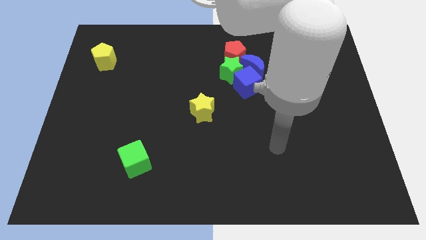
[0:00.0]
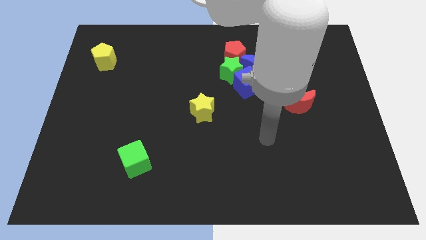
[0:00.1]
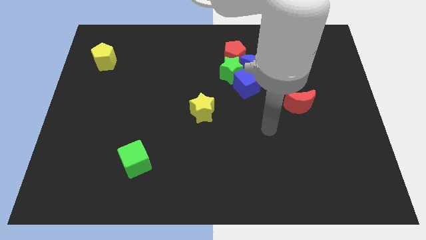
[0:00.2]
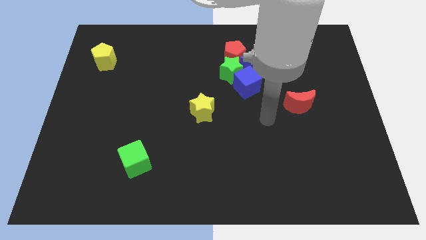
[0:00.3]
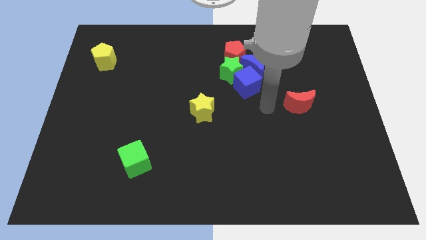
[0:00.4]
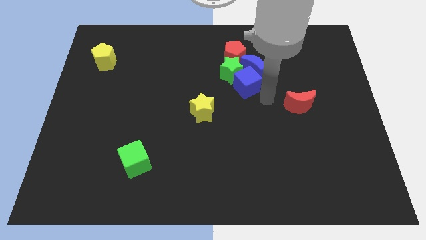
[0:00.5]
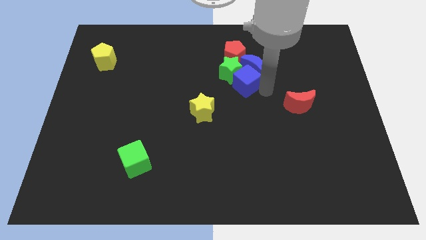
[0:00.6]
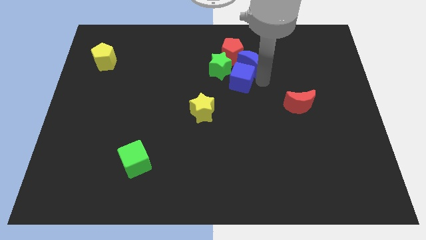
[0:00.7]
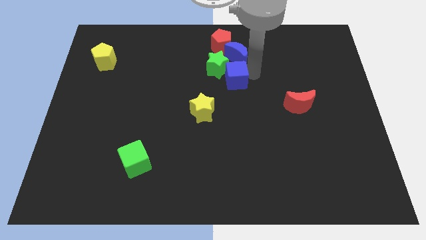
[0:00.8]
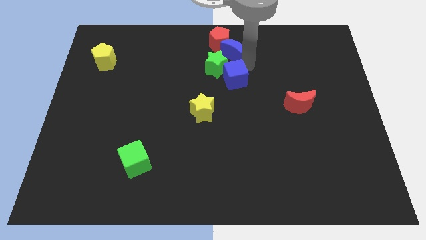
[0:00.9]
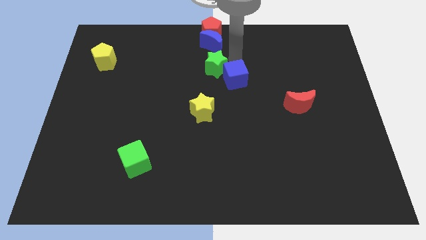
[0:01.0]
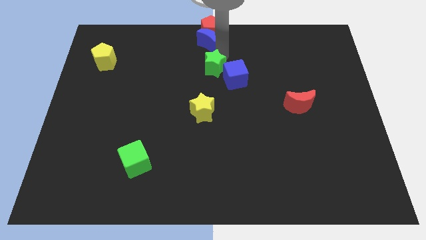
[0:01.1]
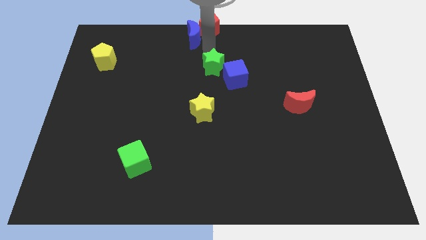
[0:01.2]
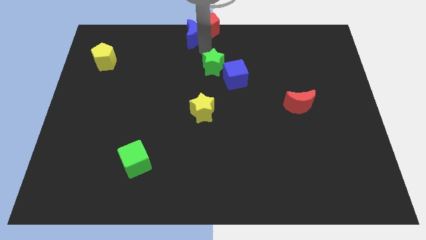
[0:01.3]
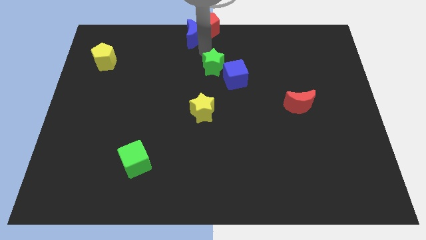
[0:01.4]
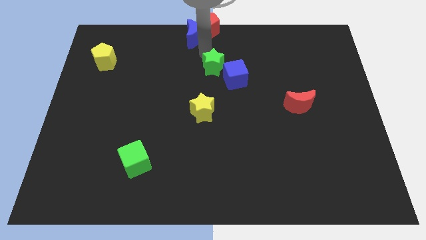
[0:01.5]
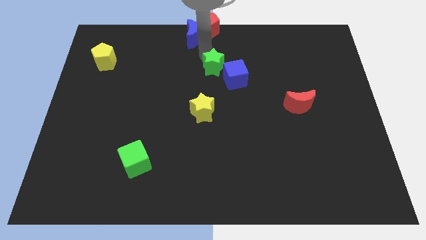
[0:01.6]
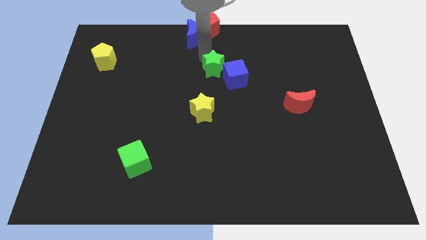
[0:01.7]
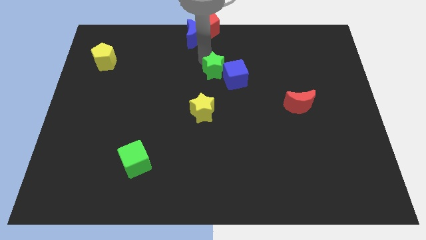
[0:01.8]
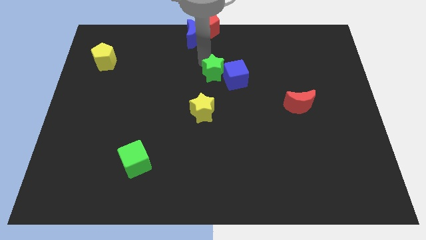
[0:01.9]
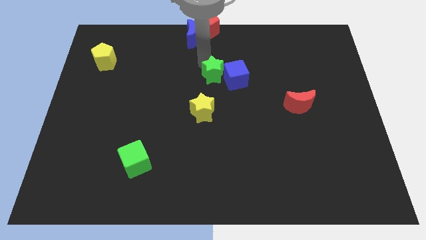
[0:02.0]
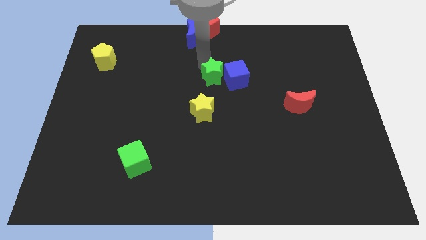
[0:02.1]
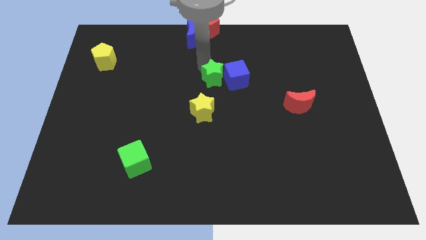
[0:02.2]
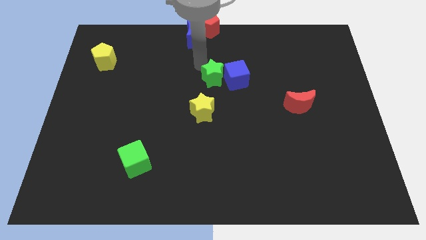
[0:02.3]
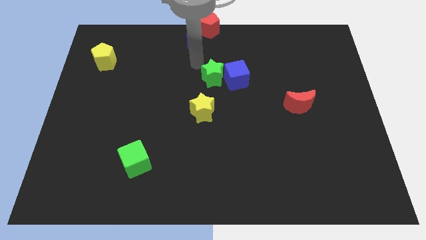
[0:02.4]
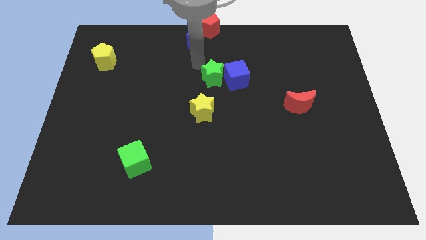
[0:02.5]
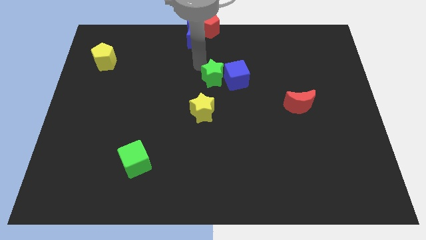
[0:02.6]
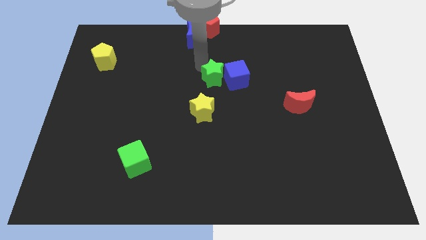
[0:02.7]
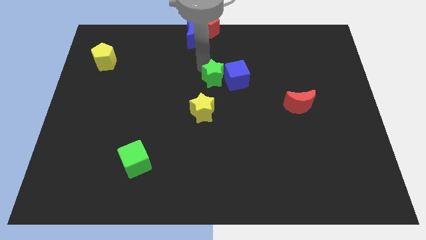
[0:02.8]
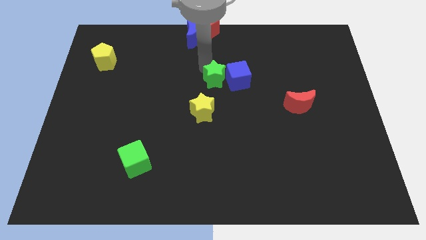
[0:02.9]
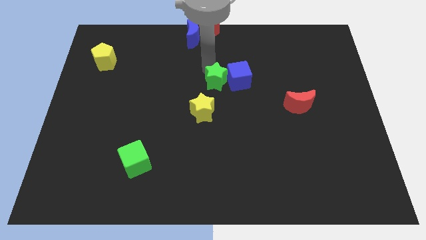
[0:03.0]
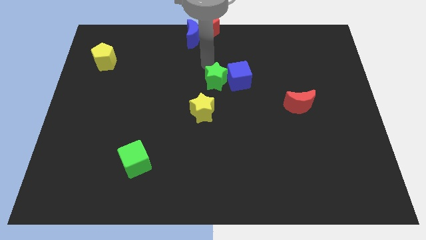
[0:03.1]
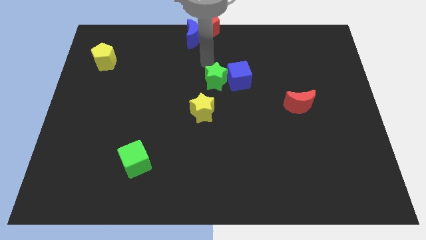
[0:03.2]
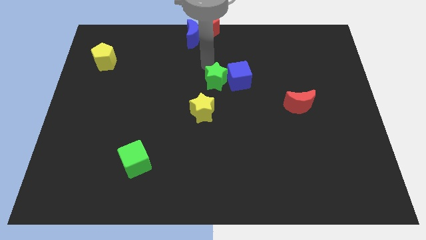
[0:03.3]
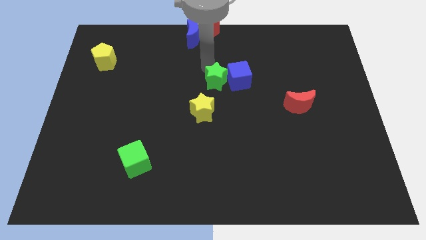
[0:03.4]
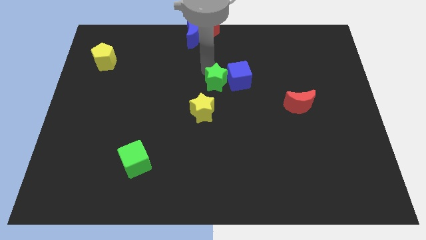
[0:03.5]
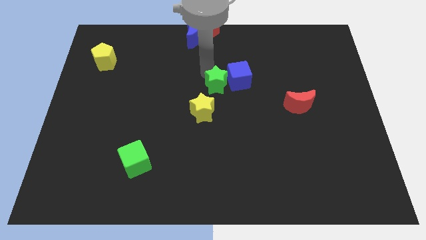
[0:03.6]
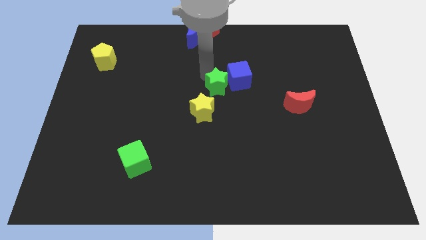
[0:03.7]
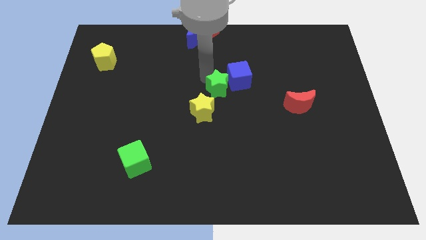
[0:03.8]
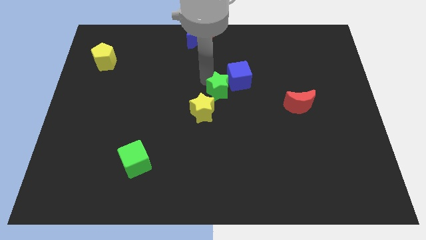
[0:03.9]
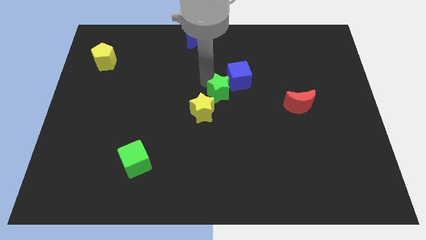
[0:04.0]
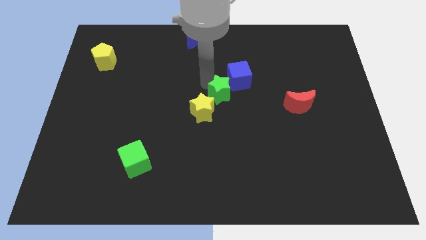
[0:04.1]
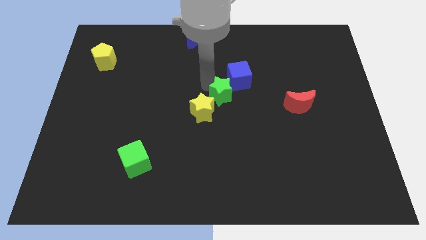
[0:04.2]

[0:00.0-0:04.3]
slide the green star down somewhat

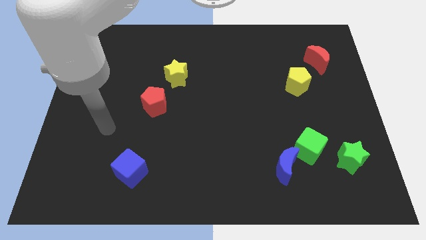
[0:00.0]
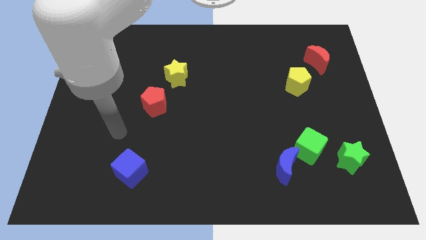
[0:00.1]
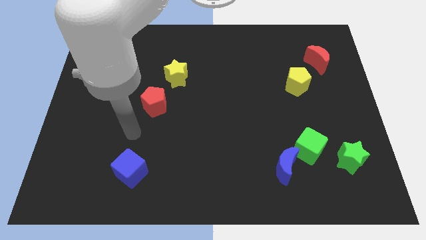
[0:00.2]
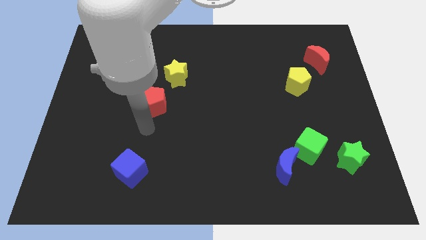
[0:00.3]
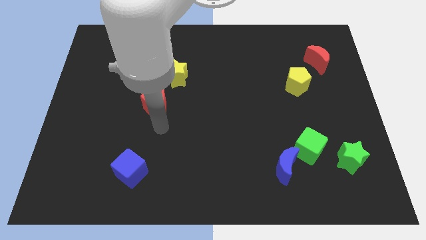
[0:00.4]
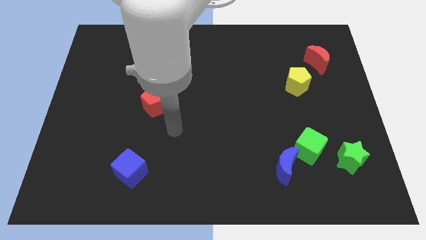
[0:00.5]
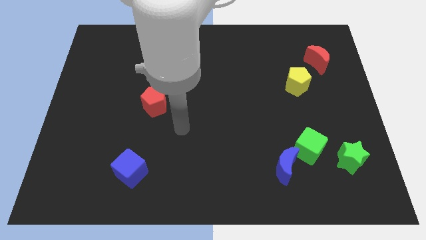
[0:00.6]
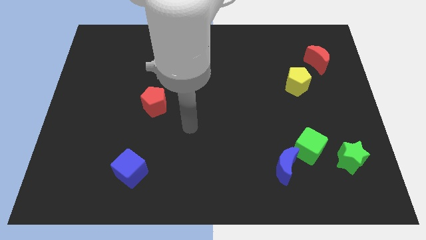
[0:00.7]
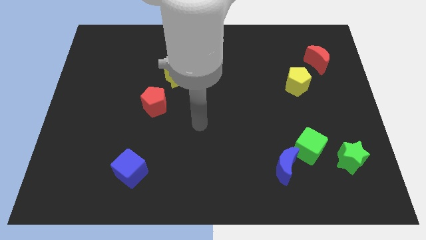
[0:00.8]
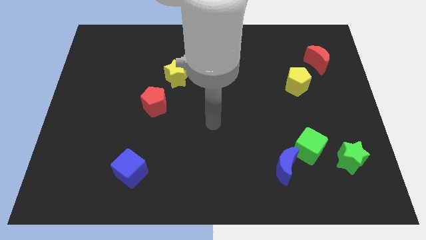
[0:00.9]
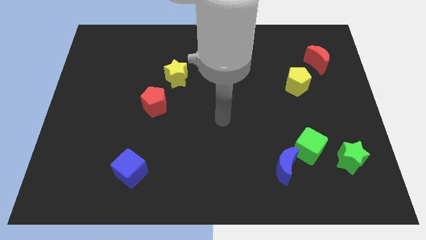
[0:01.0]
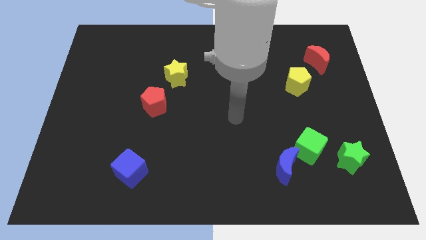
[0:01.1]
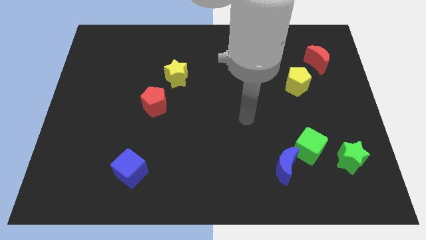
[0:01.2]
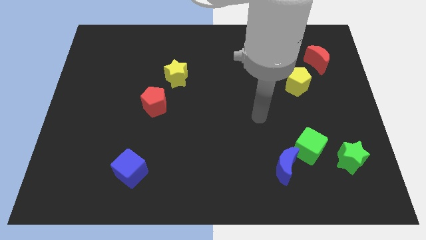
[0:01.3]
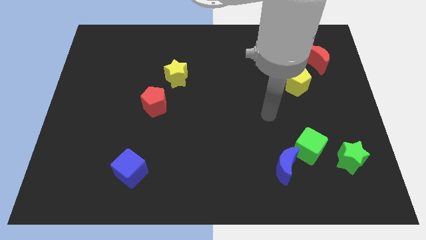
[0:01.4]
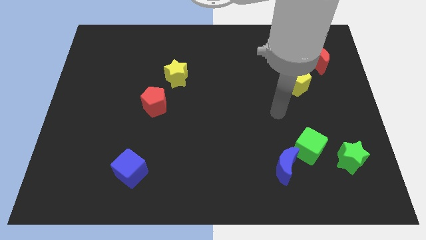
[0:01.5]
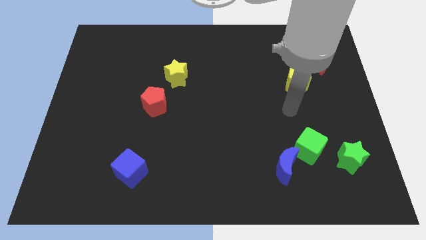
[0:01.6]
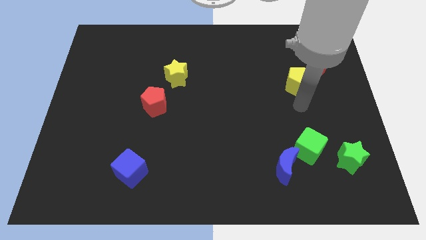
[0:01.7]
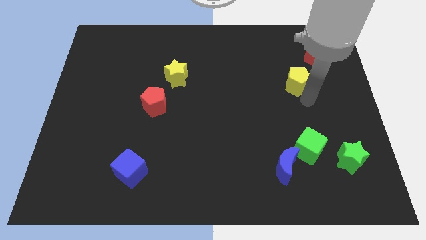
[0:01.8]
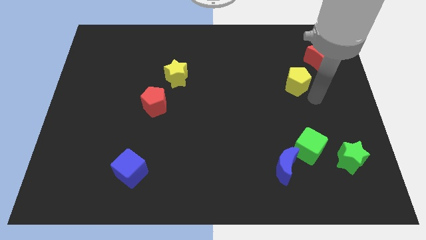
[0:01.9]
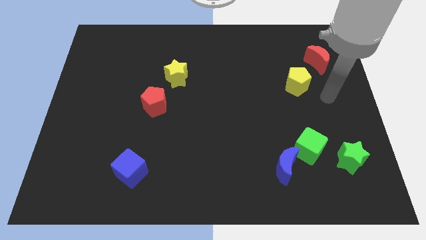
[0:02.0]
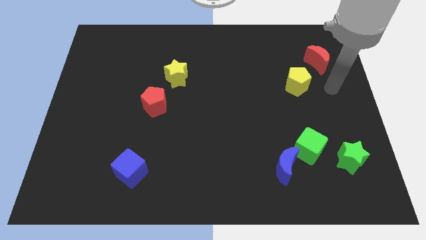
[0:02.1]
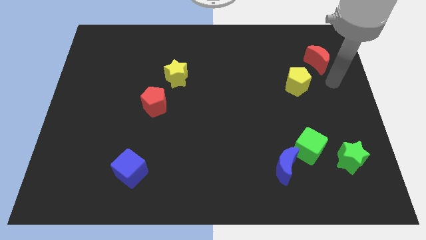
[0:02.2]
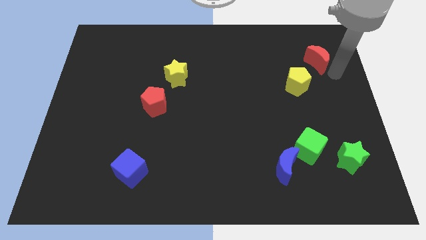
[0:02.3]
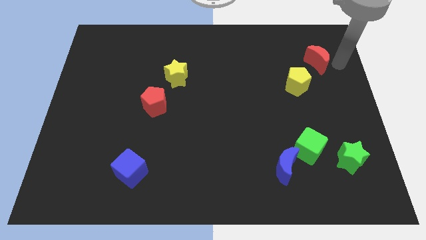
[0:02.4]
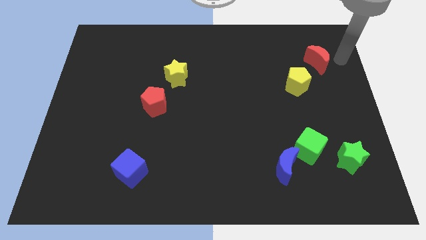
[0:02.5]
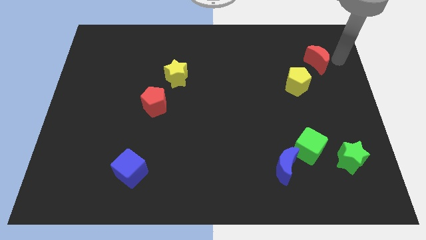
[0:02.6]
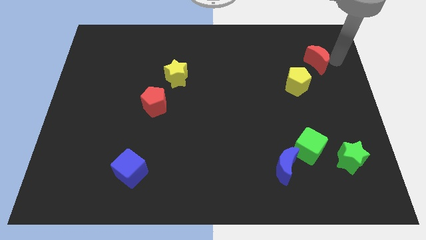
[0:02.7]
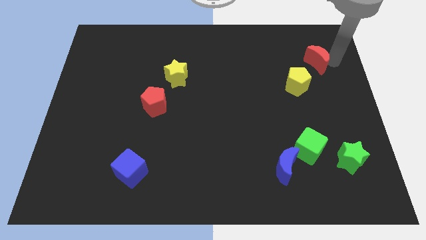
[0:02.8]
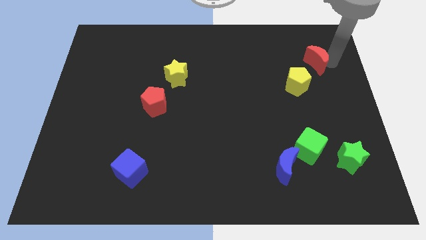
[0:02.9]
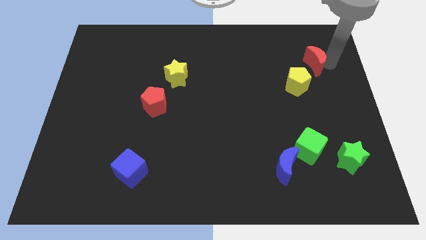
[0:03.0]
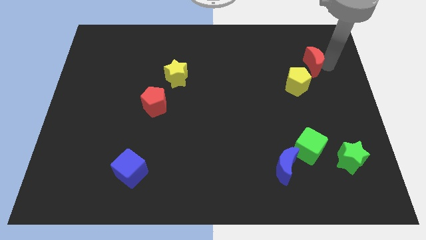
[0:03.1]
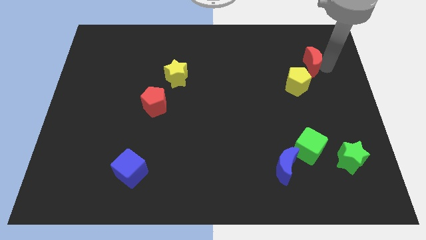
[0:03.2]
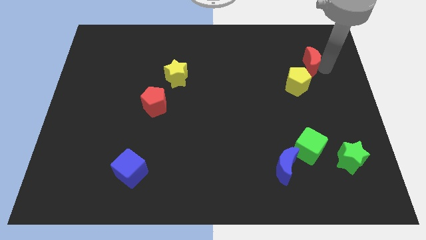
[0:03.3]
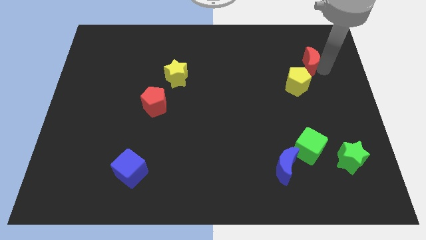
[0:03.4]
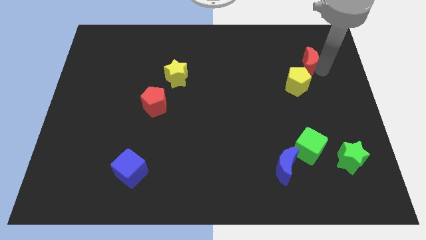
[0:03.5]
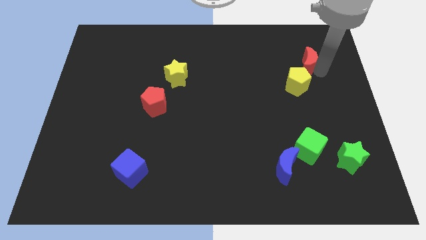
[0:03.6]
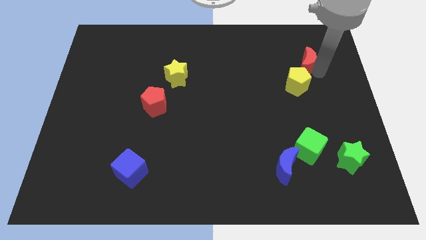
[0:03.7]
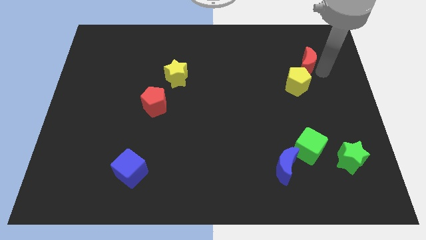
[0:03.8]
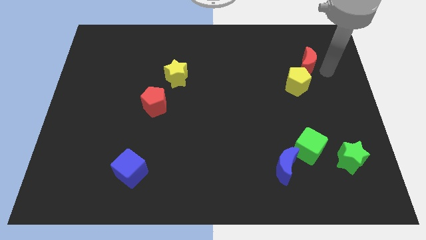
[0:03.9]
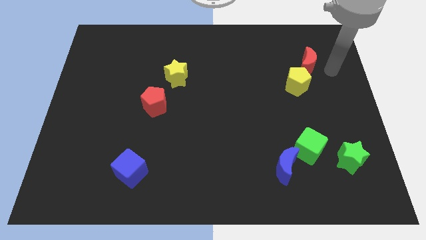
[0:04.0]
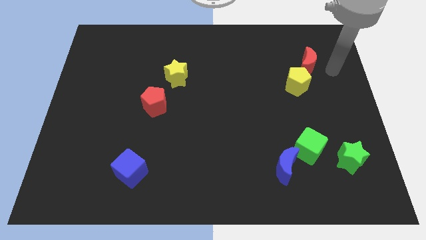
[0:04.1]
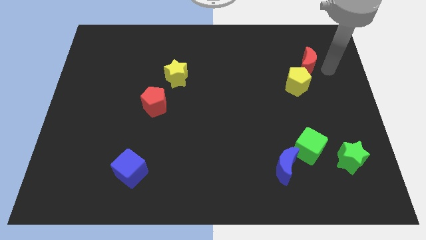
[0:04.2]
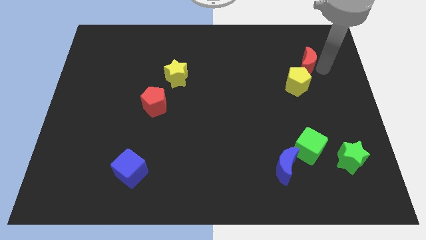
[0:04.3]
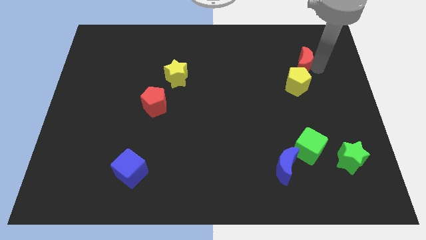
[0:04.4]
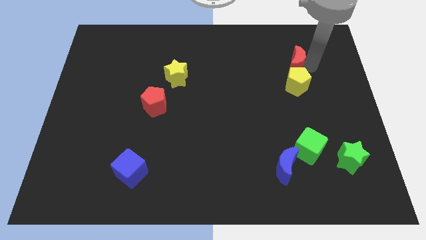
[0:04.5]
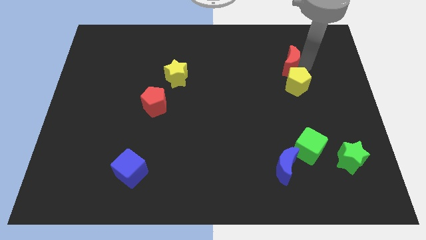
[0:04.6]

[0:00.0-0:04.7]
move the red moon to the left a little
